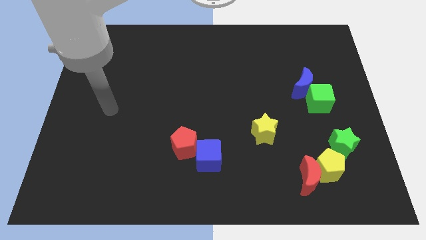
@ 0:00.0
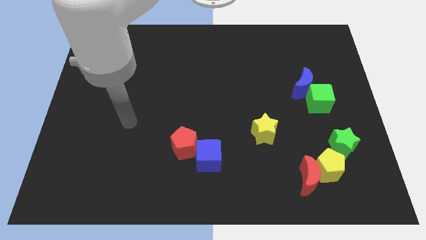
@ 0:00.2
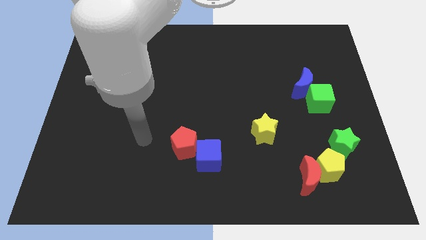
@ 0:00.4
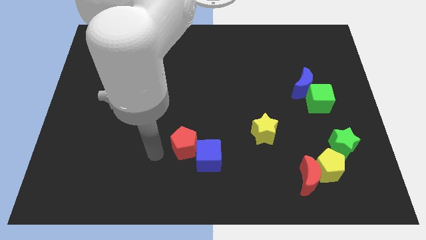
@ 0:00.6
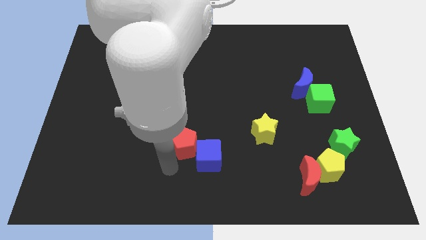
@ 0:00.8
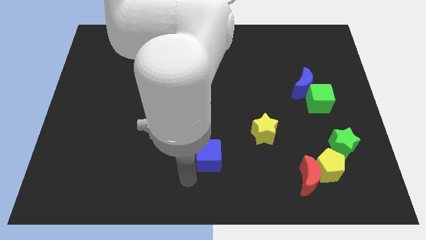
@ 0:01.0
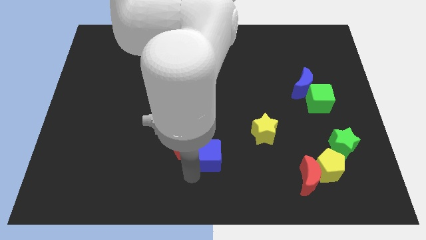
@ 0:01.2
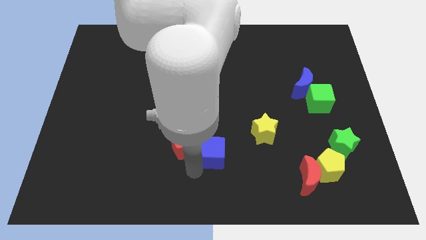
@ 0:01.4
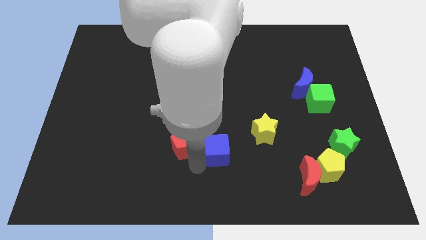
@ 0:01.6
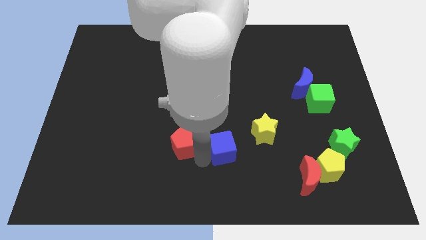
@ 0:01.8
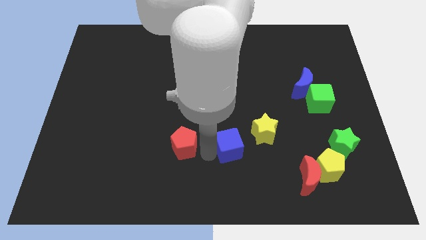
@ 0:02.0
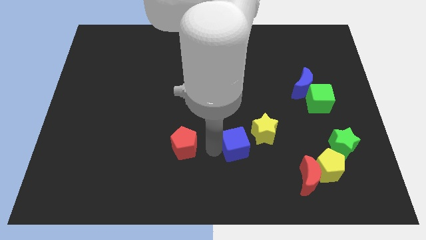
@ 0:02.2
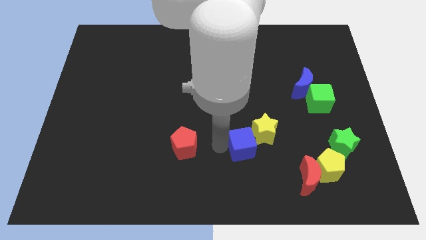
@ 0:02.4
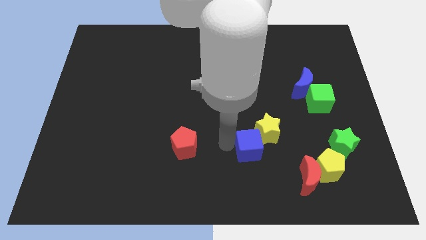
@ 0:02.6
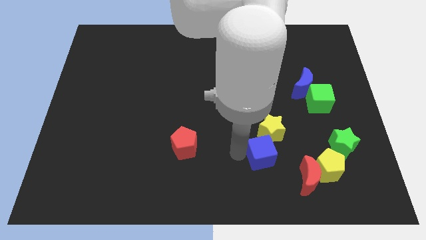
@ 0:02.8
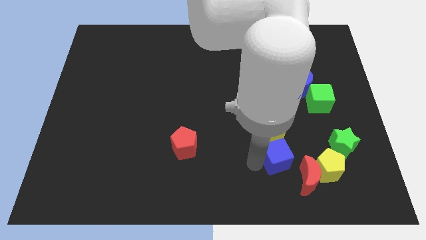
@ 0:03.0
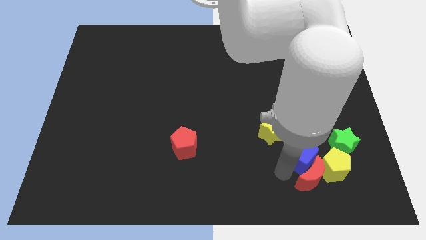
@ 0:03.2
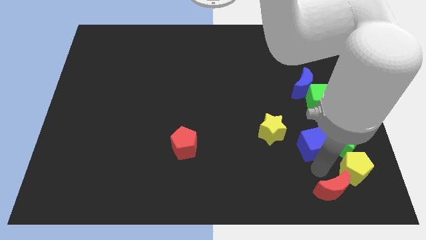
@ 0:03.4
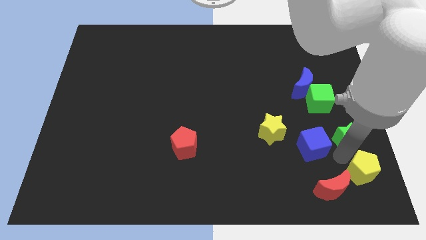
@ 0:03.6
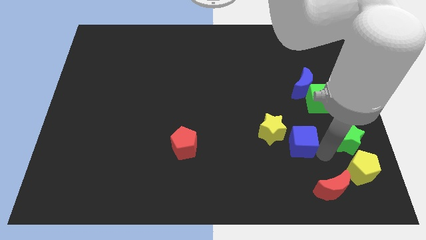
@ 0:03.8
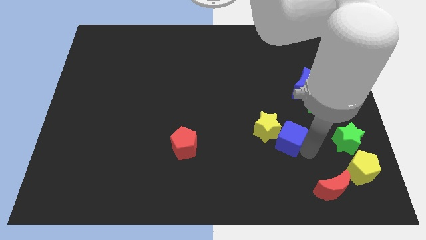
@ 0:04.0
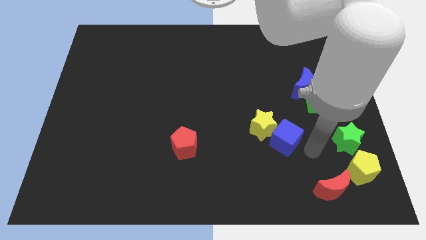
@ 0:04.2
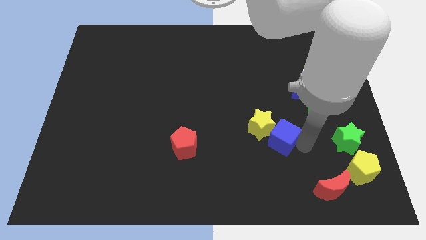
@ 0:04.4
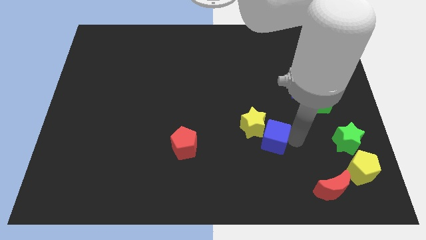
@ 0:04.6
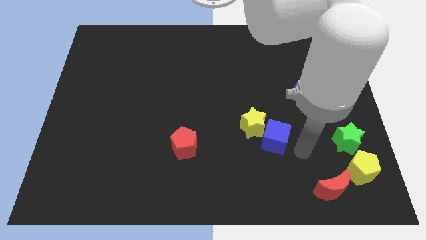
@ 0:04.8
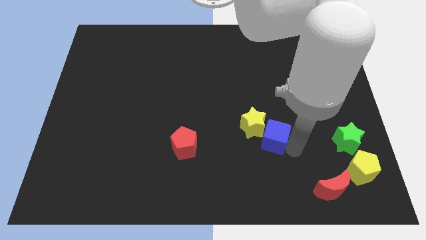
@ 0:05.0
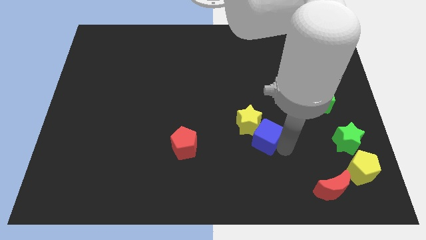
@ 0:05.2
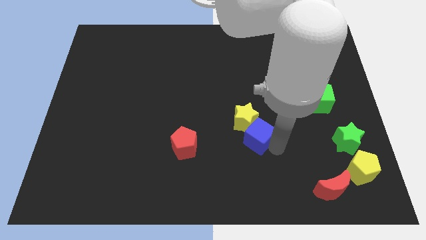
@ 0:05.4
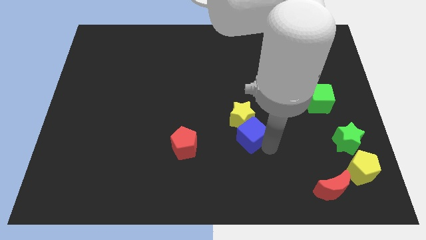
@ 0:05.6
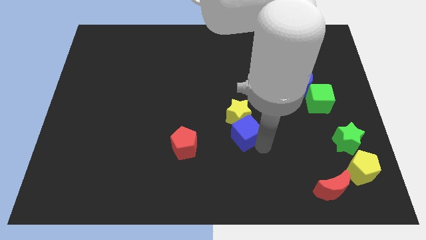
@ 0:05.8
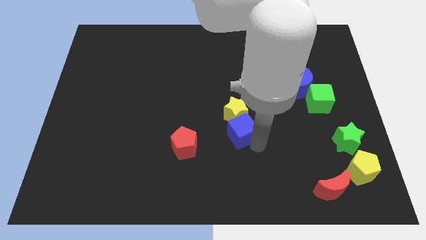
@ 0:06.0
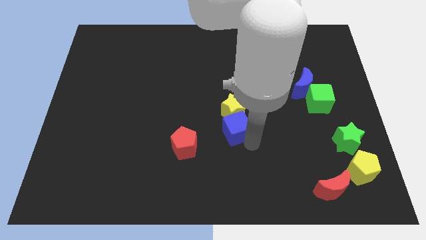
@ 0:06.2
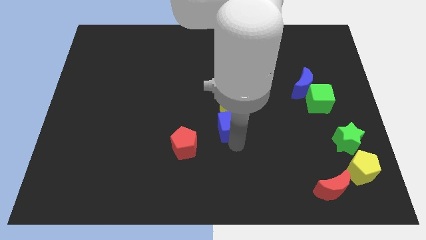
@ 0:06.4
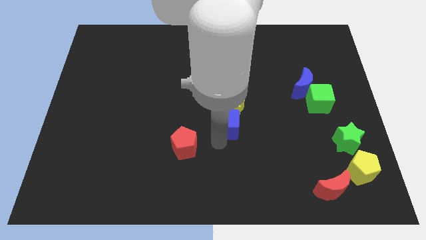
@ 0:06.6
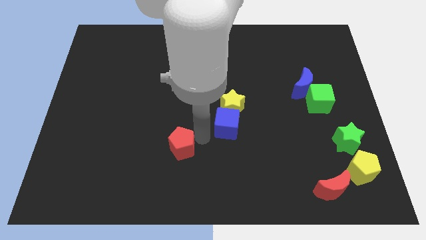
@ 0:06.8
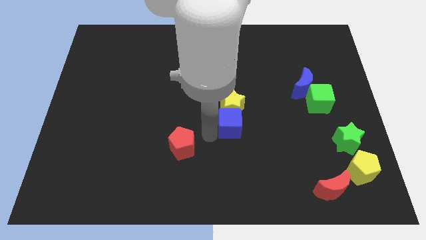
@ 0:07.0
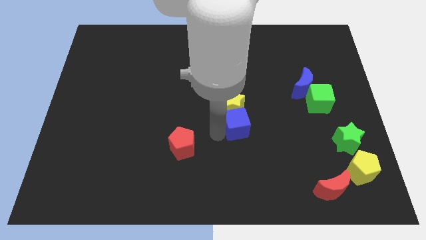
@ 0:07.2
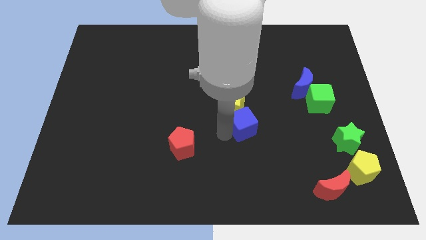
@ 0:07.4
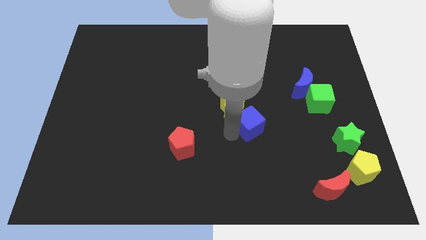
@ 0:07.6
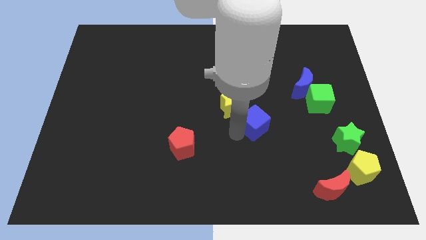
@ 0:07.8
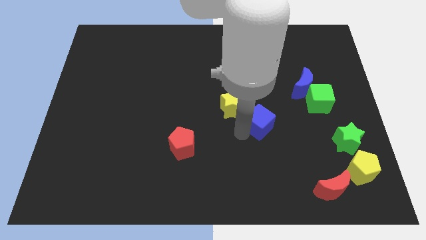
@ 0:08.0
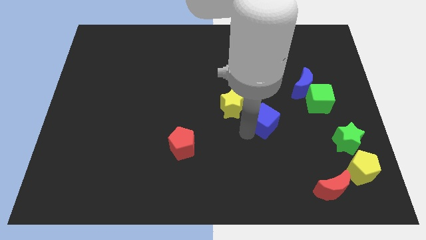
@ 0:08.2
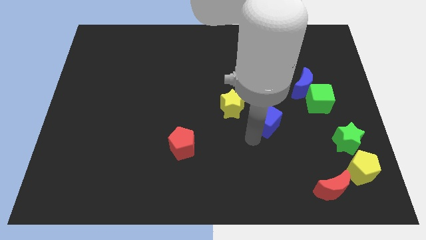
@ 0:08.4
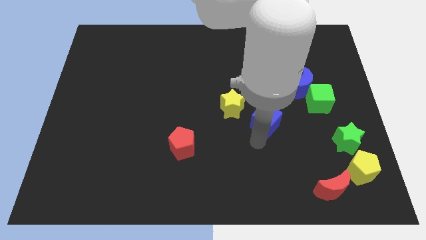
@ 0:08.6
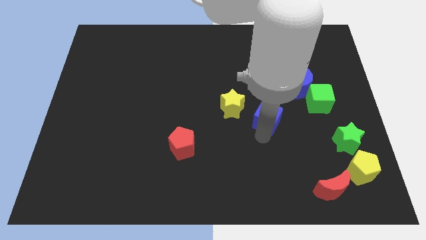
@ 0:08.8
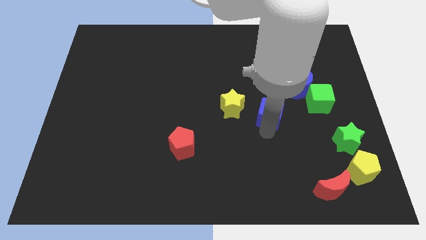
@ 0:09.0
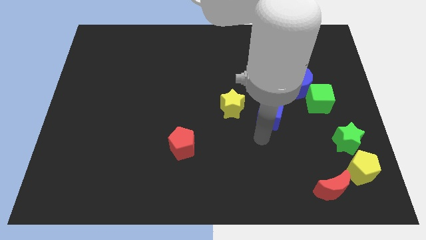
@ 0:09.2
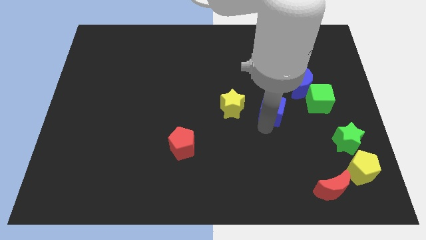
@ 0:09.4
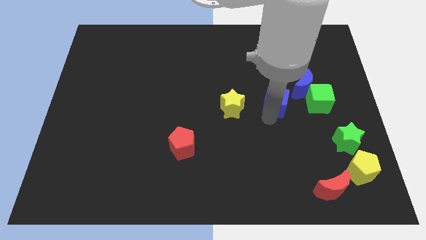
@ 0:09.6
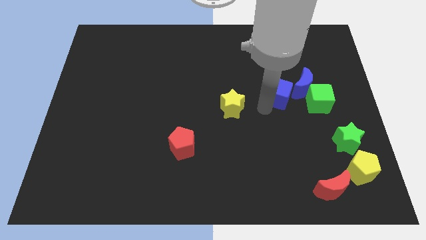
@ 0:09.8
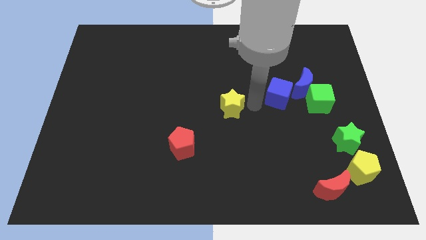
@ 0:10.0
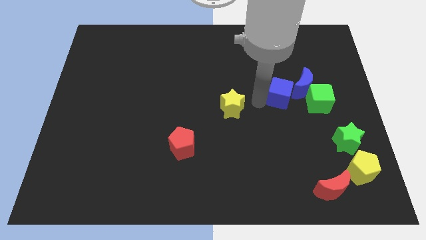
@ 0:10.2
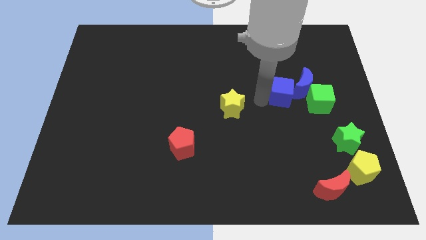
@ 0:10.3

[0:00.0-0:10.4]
move the blue cube towards the blue moon

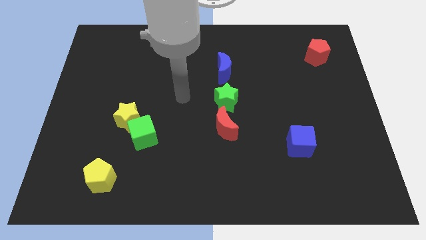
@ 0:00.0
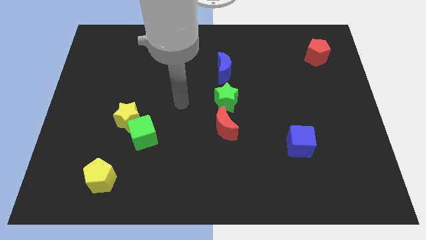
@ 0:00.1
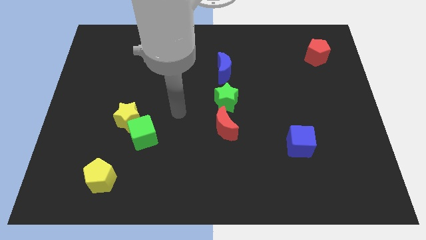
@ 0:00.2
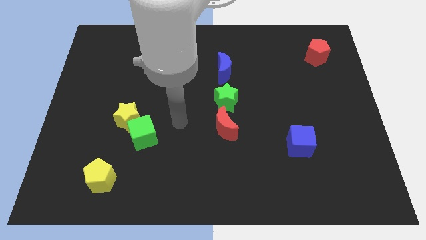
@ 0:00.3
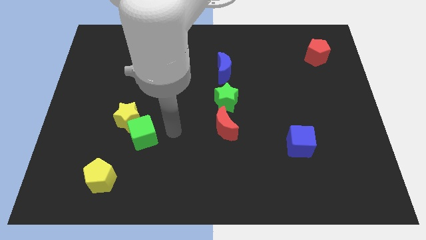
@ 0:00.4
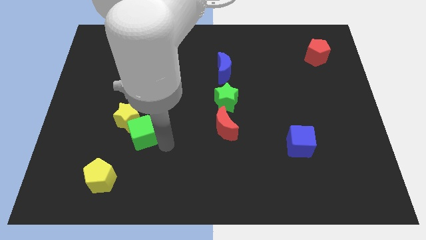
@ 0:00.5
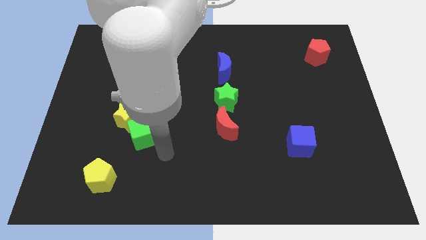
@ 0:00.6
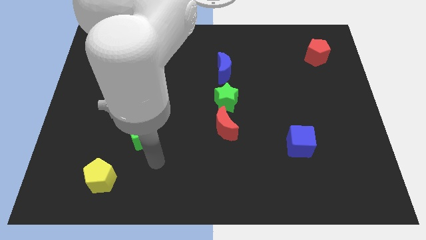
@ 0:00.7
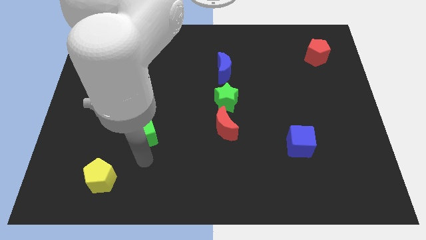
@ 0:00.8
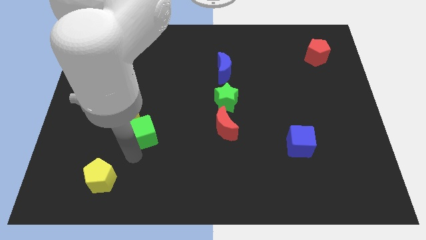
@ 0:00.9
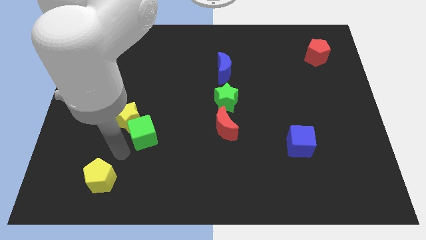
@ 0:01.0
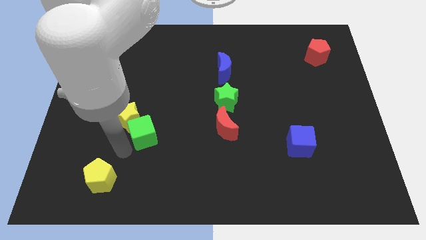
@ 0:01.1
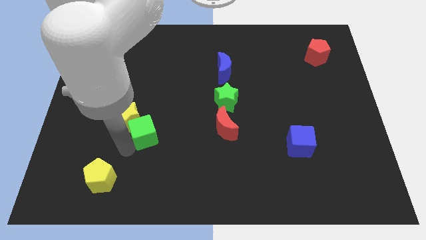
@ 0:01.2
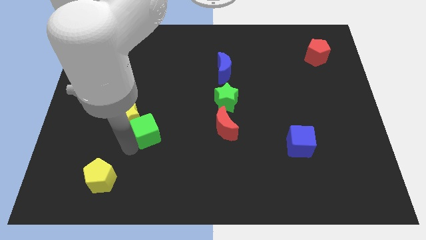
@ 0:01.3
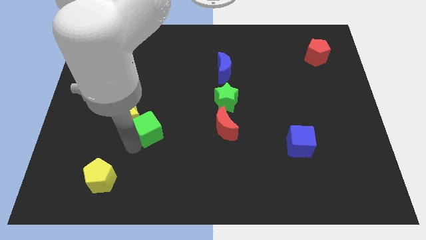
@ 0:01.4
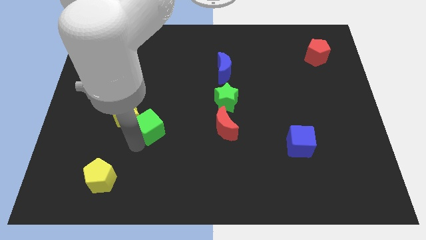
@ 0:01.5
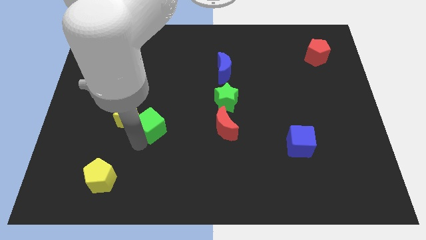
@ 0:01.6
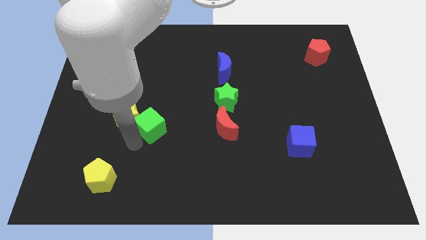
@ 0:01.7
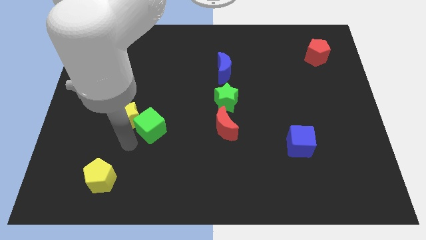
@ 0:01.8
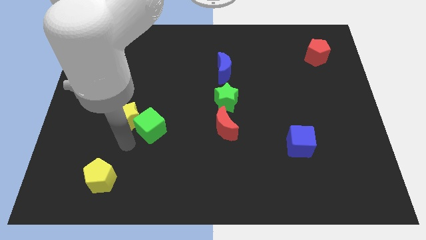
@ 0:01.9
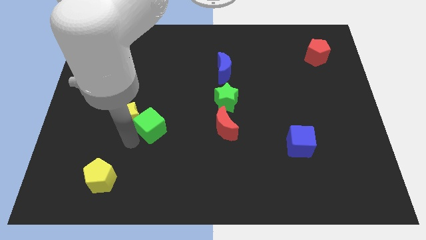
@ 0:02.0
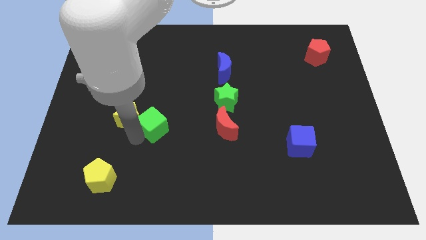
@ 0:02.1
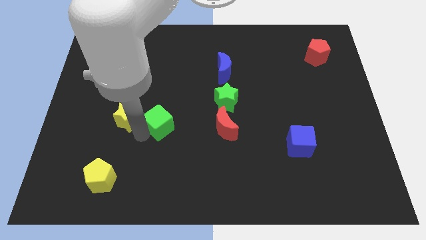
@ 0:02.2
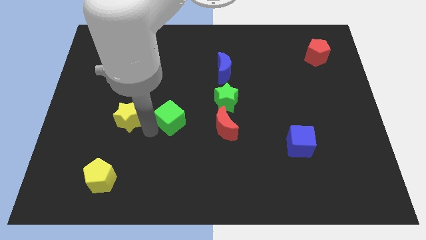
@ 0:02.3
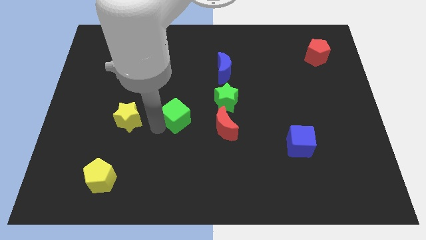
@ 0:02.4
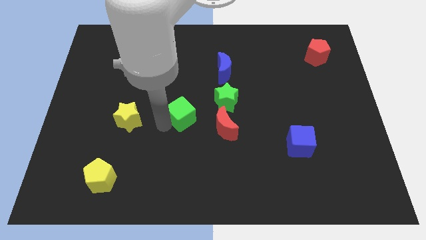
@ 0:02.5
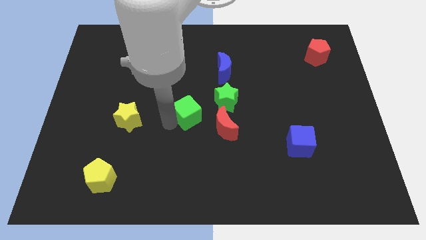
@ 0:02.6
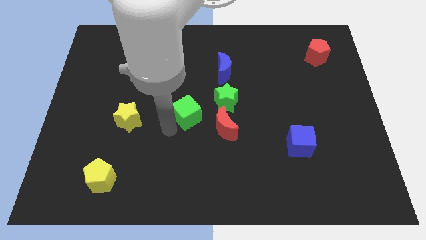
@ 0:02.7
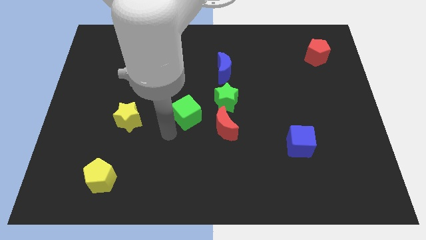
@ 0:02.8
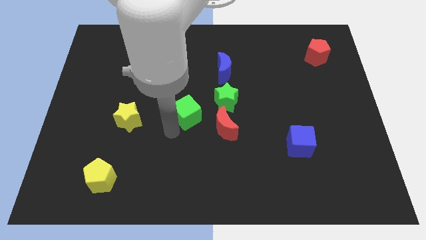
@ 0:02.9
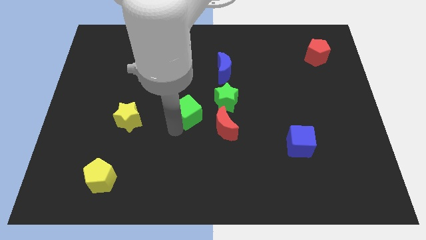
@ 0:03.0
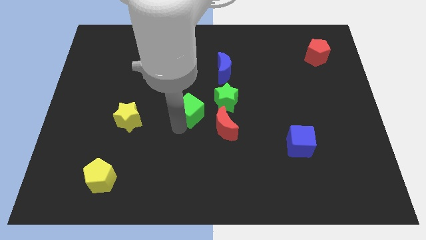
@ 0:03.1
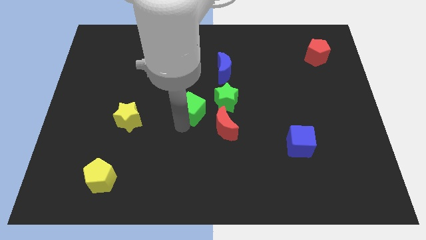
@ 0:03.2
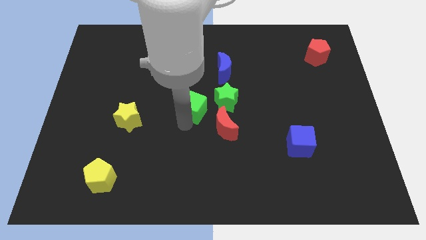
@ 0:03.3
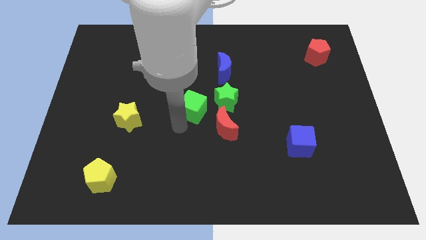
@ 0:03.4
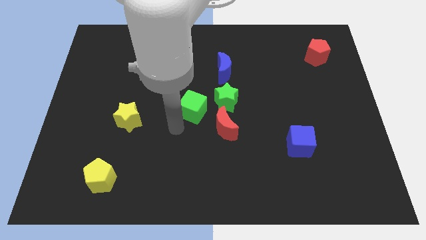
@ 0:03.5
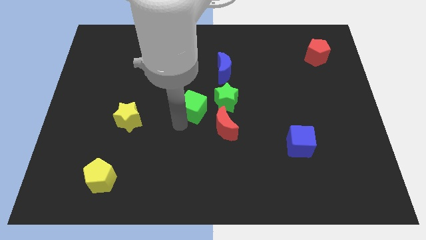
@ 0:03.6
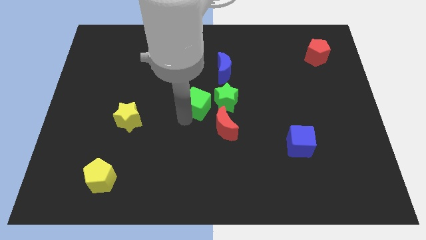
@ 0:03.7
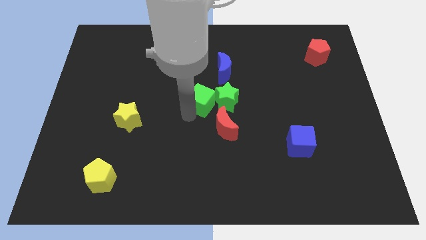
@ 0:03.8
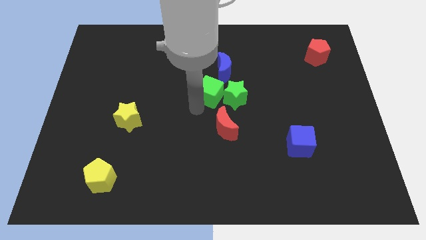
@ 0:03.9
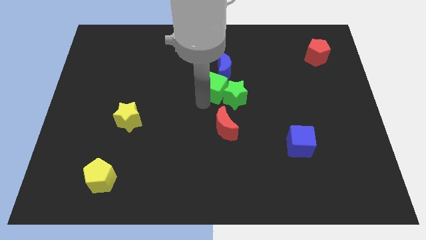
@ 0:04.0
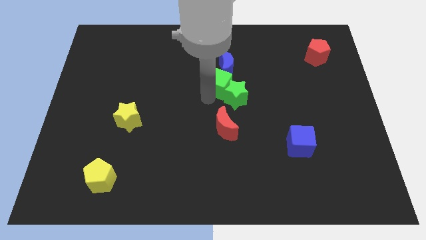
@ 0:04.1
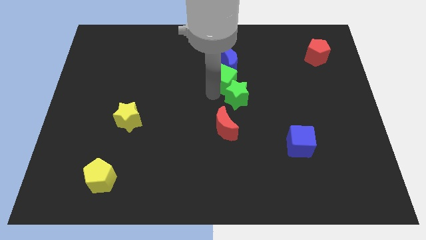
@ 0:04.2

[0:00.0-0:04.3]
put the green cube to the blue moon
